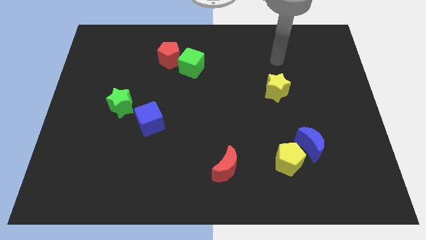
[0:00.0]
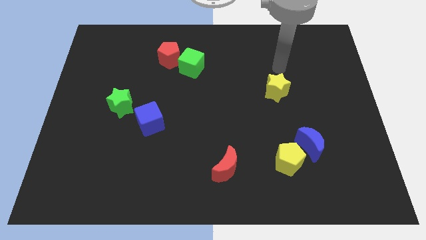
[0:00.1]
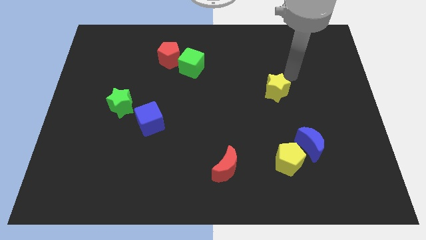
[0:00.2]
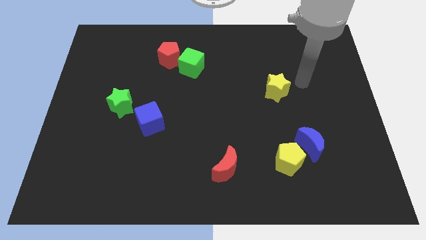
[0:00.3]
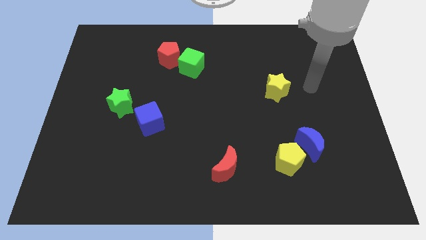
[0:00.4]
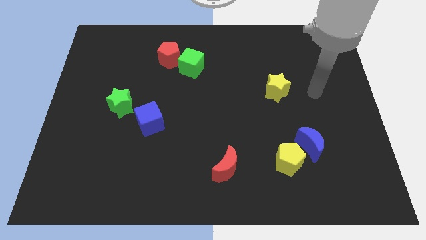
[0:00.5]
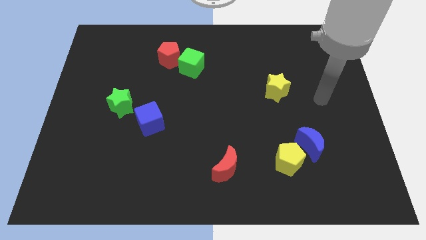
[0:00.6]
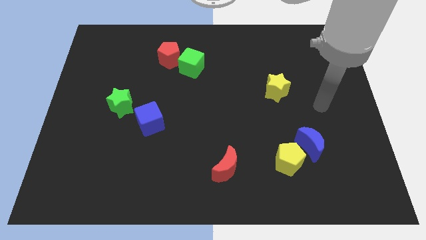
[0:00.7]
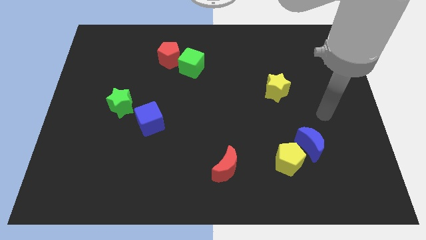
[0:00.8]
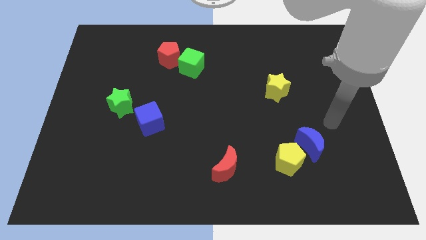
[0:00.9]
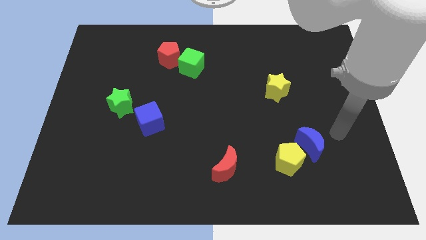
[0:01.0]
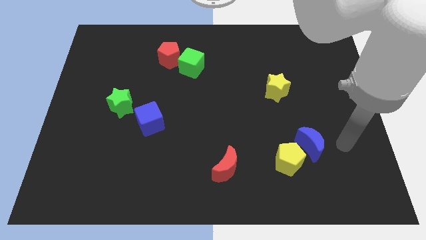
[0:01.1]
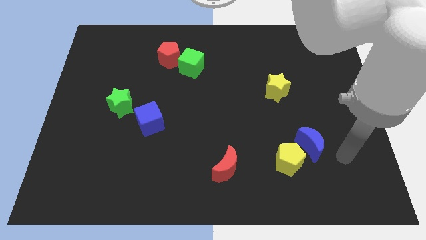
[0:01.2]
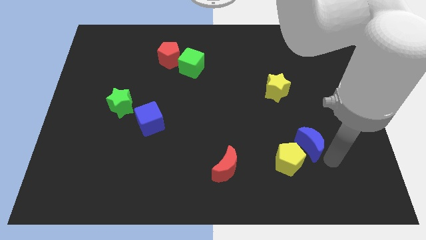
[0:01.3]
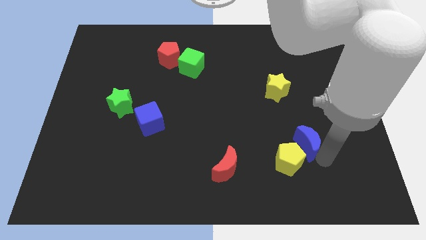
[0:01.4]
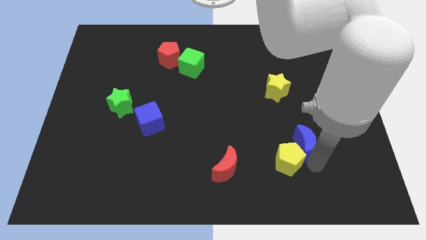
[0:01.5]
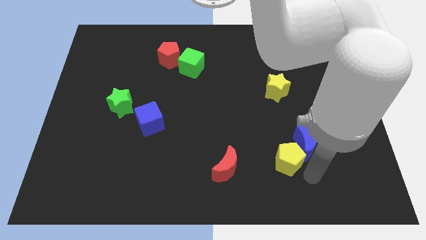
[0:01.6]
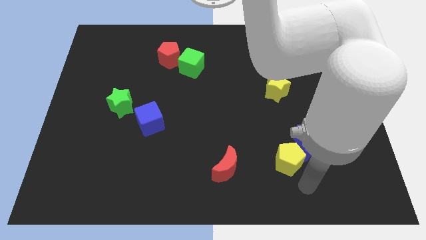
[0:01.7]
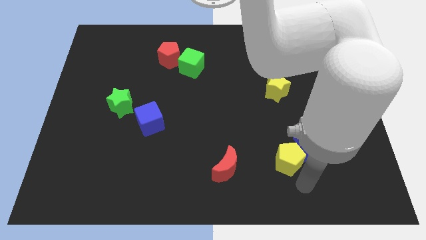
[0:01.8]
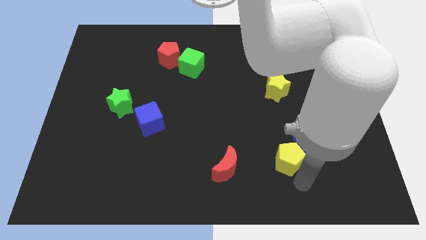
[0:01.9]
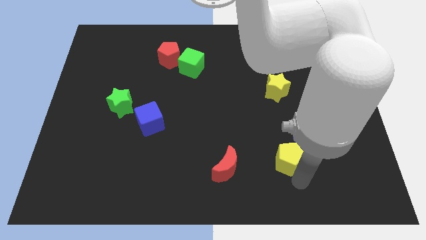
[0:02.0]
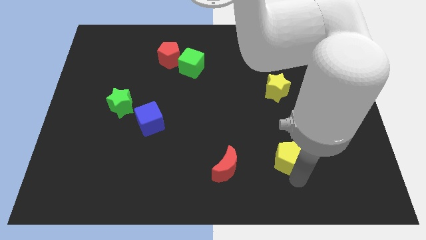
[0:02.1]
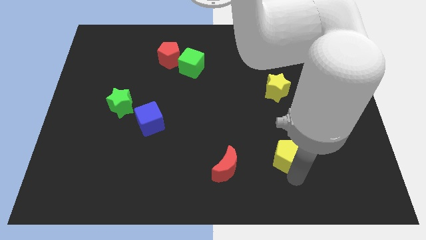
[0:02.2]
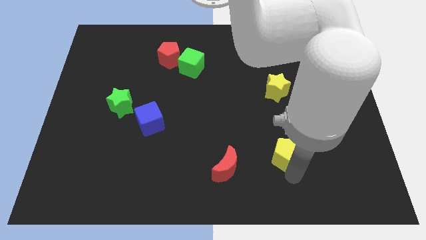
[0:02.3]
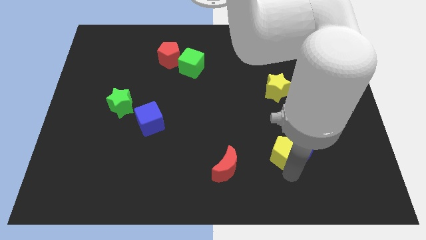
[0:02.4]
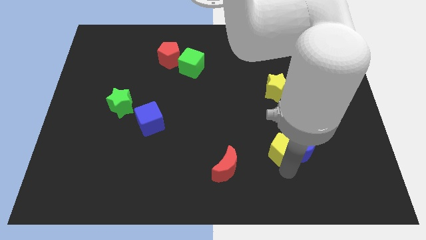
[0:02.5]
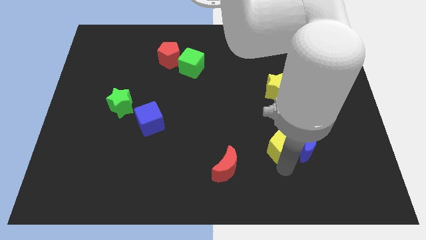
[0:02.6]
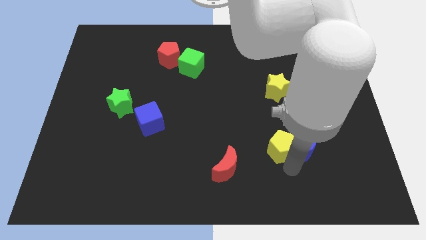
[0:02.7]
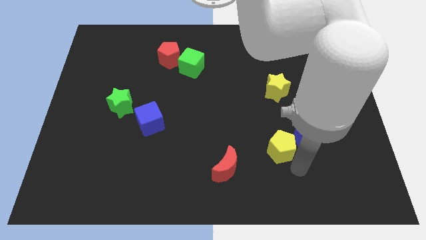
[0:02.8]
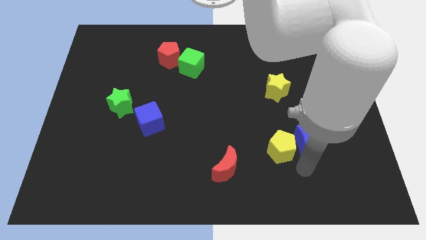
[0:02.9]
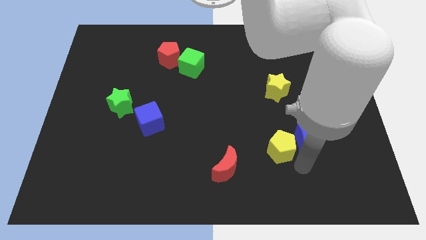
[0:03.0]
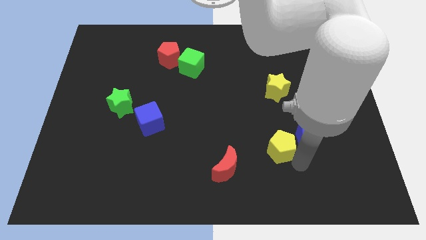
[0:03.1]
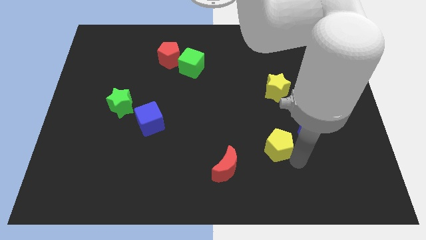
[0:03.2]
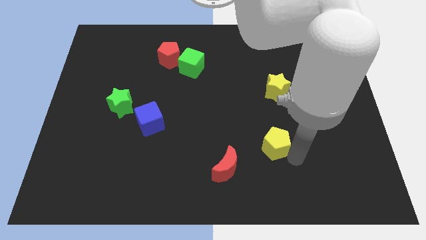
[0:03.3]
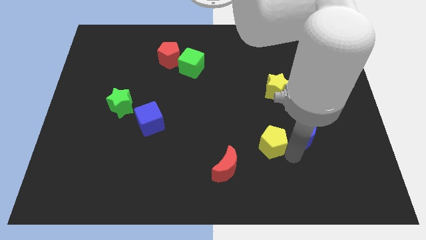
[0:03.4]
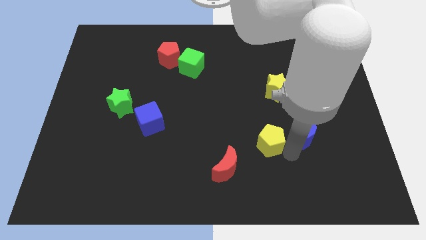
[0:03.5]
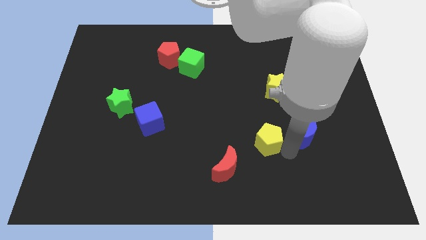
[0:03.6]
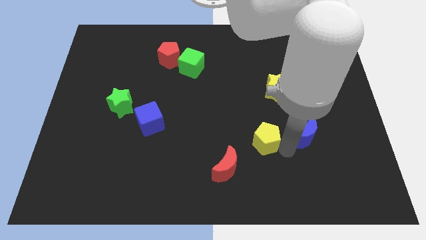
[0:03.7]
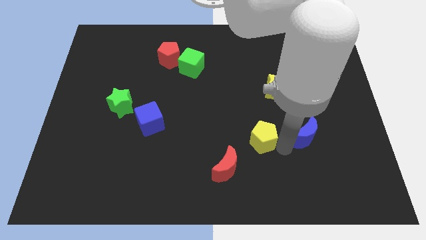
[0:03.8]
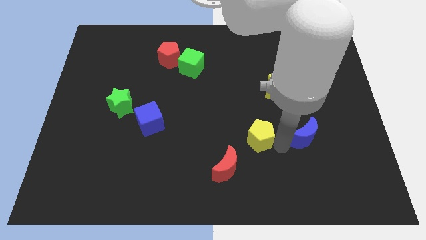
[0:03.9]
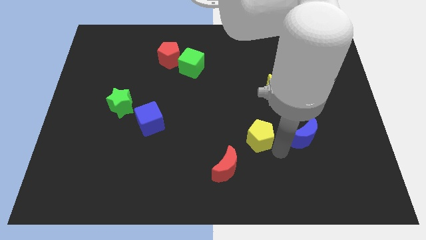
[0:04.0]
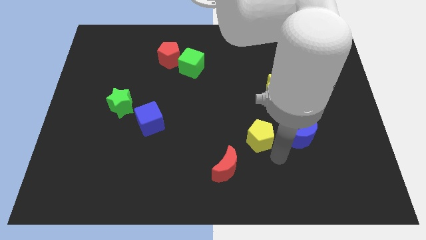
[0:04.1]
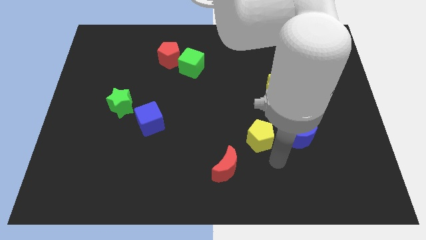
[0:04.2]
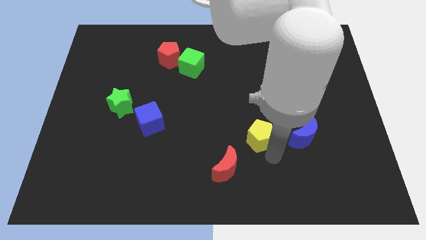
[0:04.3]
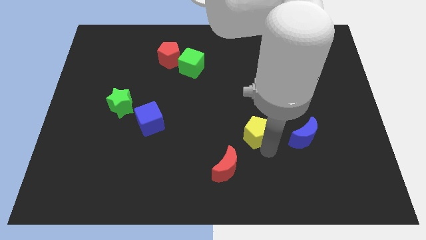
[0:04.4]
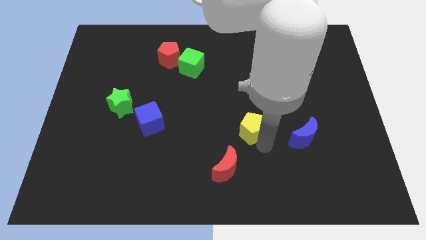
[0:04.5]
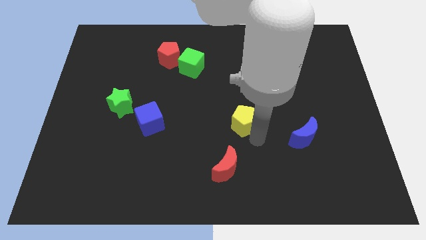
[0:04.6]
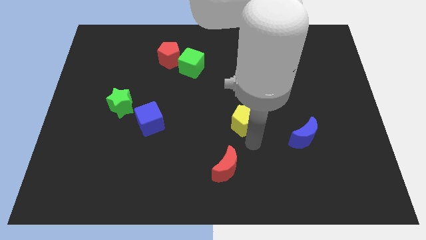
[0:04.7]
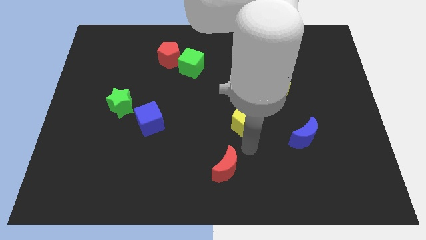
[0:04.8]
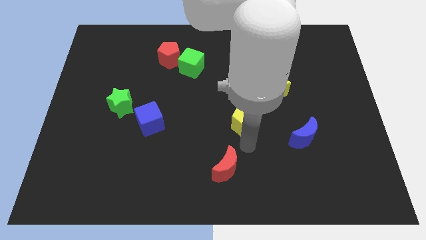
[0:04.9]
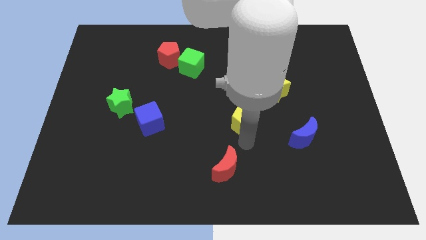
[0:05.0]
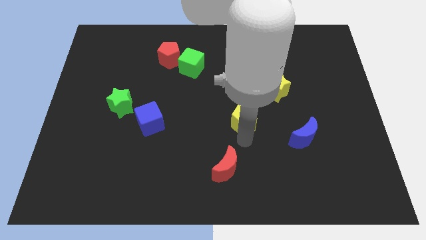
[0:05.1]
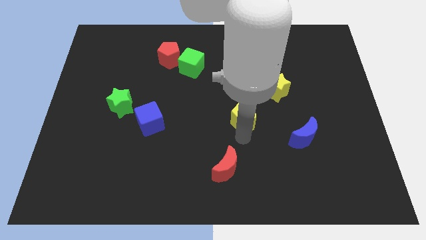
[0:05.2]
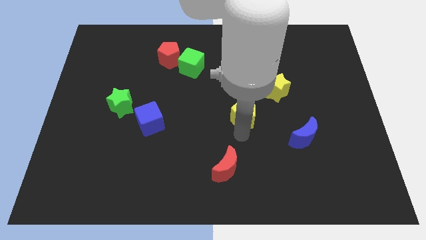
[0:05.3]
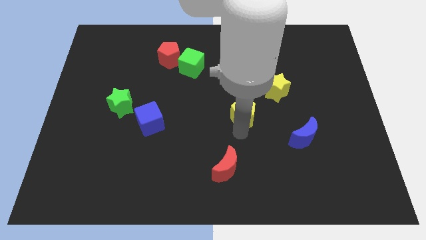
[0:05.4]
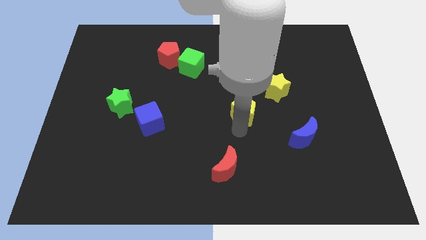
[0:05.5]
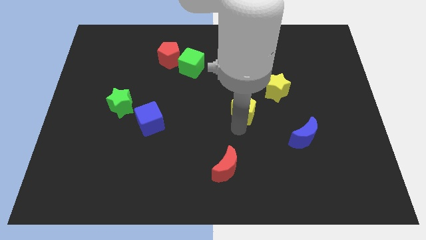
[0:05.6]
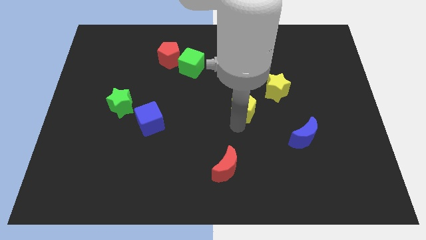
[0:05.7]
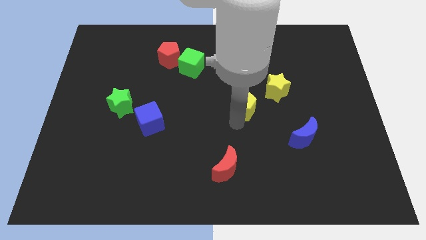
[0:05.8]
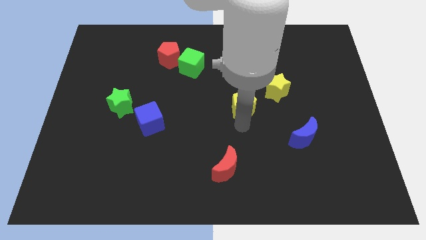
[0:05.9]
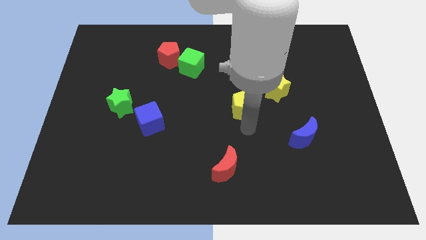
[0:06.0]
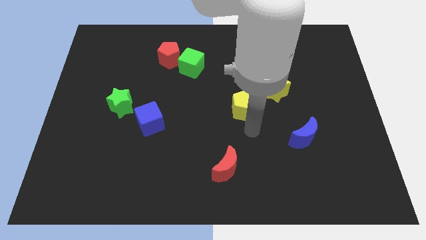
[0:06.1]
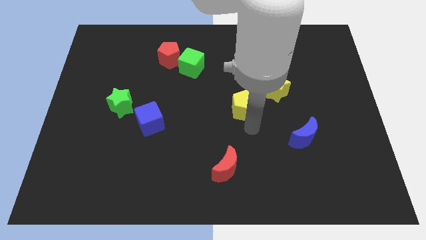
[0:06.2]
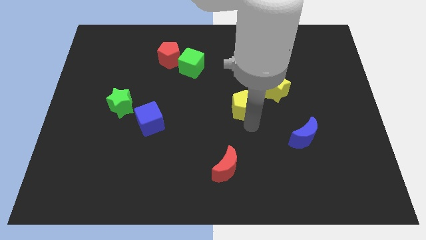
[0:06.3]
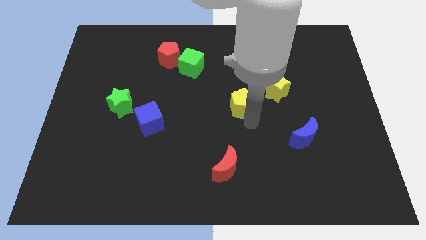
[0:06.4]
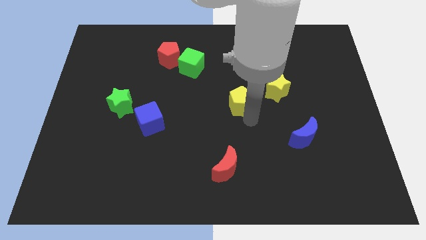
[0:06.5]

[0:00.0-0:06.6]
put the yellow pentagon to the left side of the yellow star
